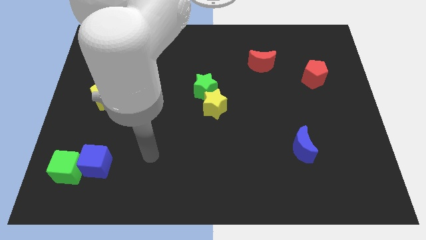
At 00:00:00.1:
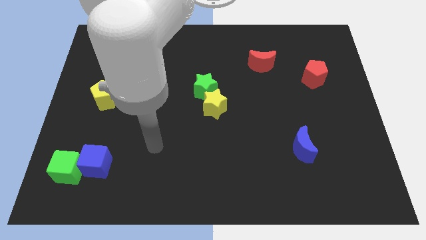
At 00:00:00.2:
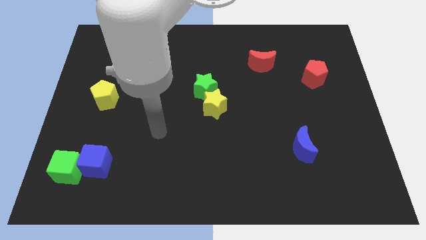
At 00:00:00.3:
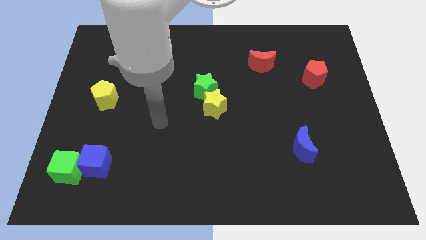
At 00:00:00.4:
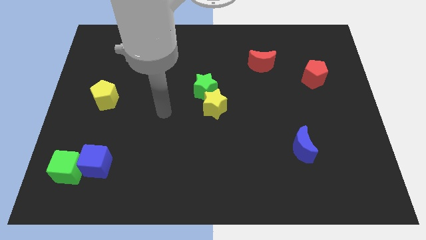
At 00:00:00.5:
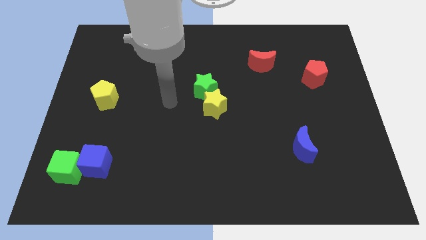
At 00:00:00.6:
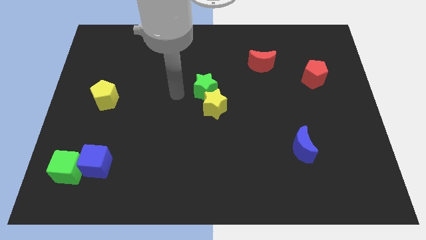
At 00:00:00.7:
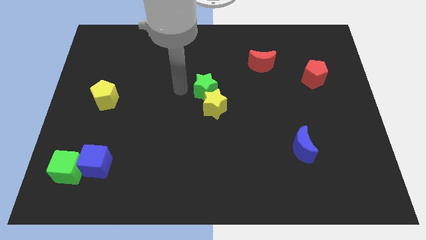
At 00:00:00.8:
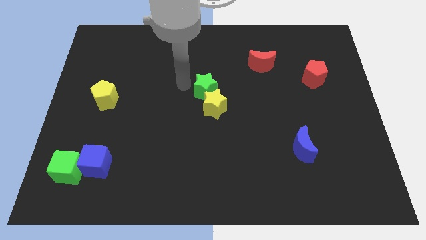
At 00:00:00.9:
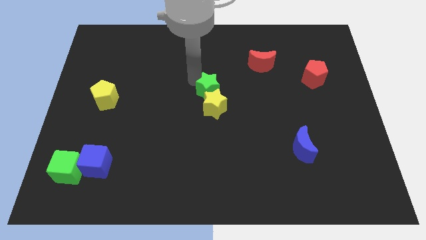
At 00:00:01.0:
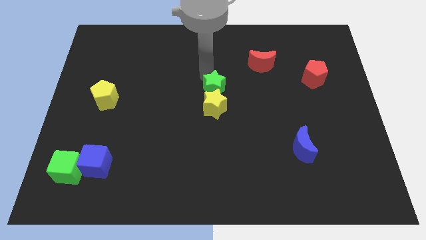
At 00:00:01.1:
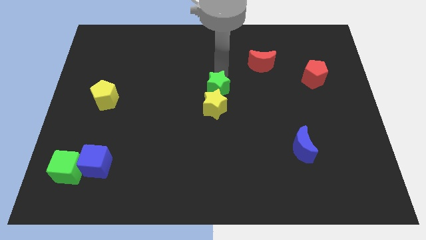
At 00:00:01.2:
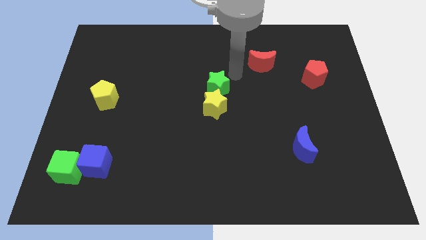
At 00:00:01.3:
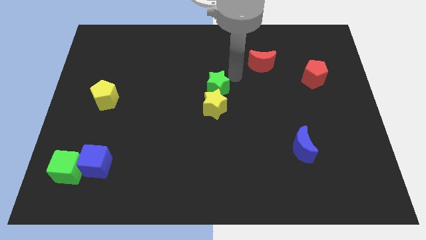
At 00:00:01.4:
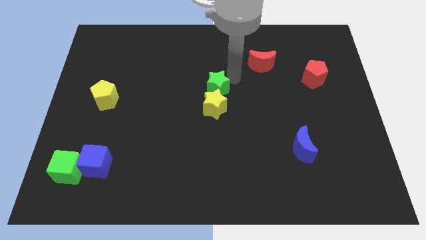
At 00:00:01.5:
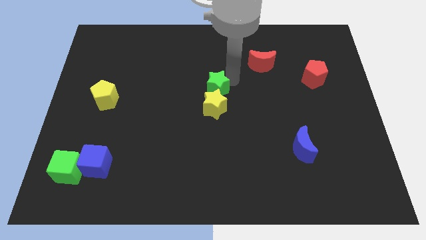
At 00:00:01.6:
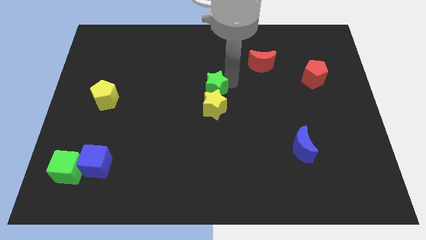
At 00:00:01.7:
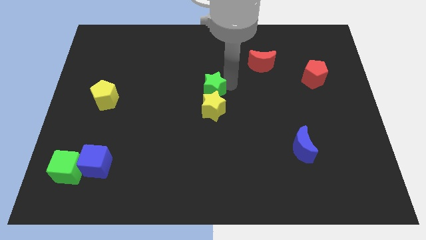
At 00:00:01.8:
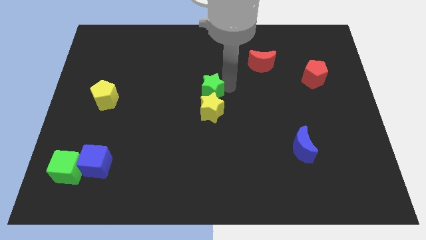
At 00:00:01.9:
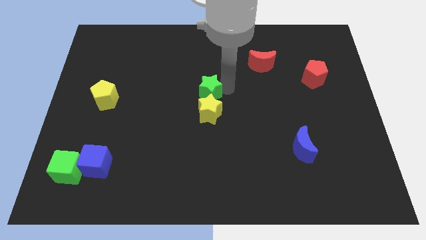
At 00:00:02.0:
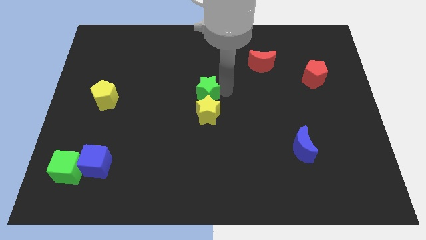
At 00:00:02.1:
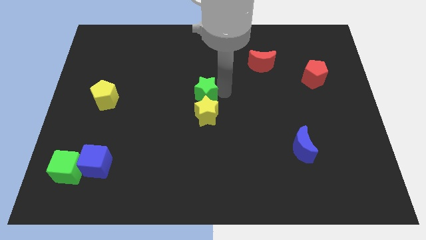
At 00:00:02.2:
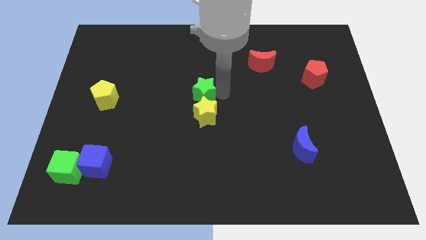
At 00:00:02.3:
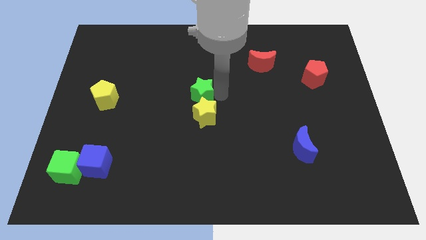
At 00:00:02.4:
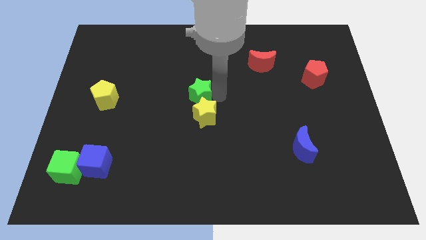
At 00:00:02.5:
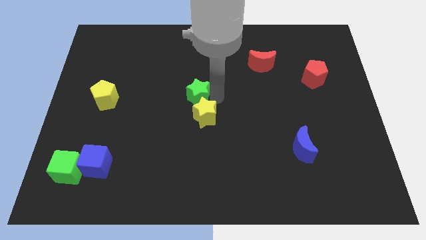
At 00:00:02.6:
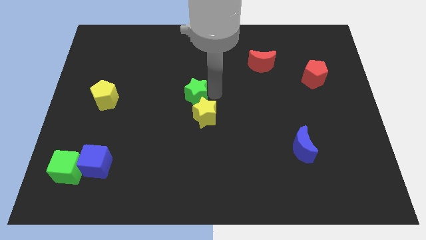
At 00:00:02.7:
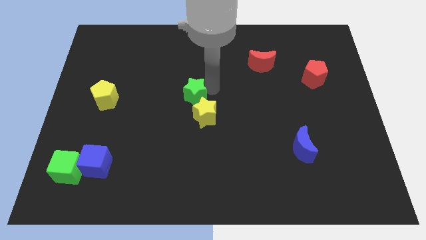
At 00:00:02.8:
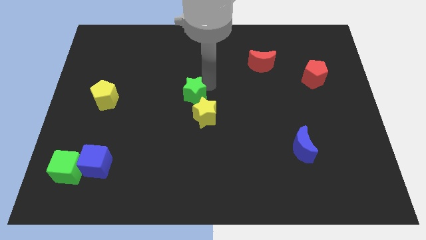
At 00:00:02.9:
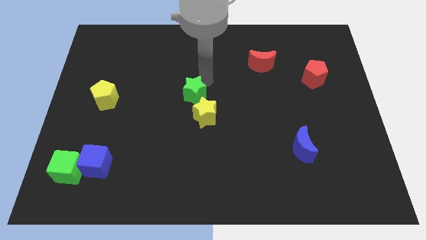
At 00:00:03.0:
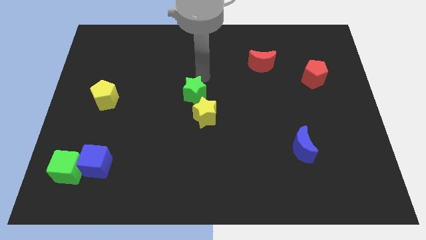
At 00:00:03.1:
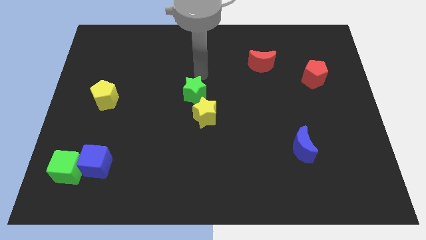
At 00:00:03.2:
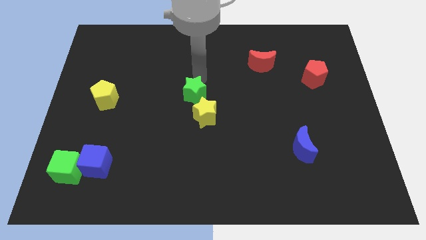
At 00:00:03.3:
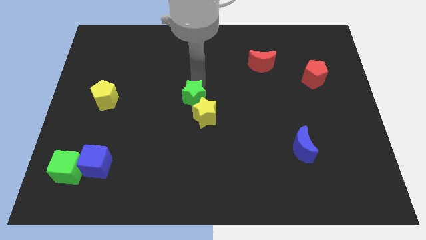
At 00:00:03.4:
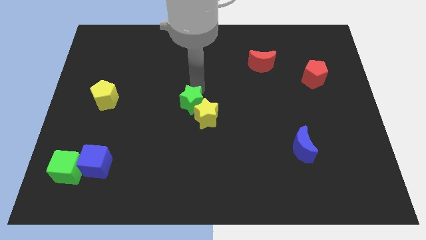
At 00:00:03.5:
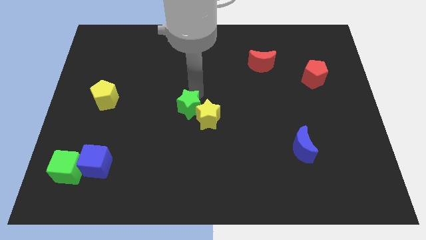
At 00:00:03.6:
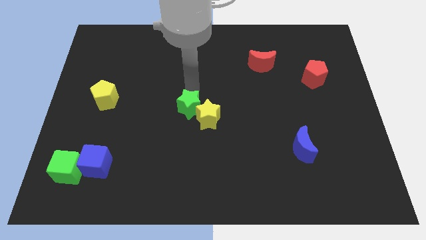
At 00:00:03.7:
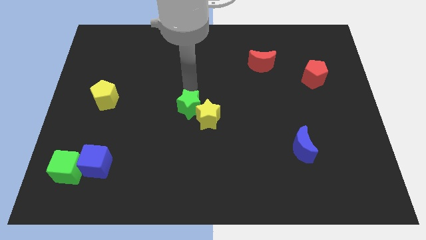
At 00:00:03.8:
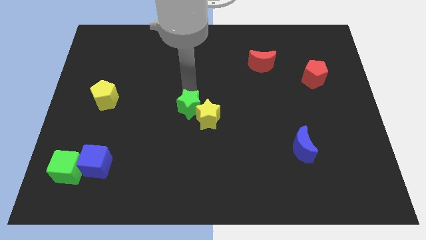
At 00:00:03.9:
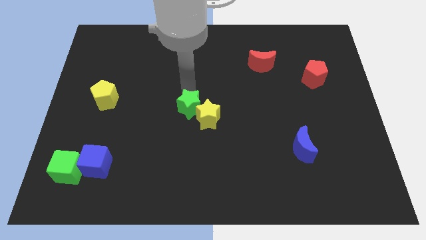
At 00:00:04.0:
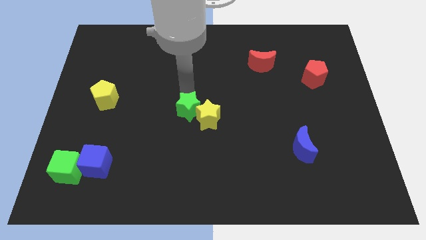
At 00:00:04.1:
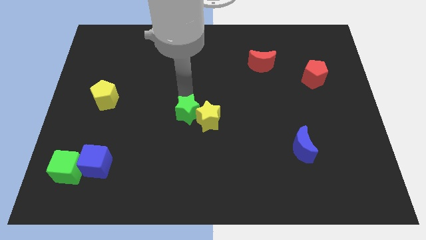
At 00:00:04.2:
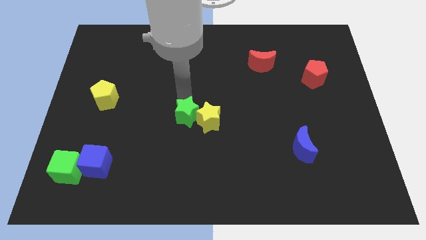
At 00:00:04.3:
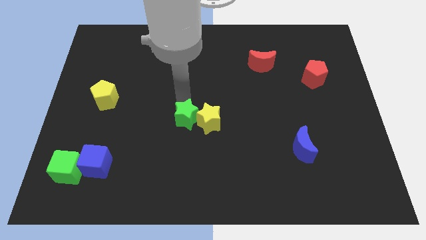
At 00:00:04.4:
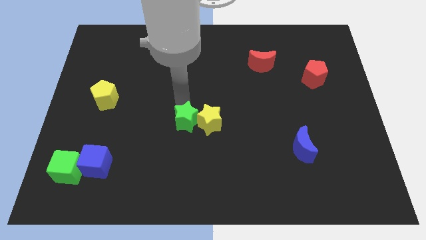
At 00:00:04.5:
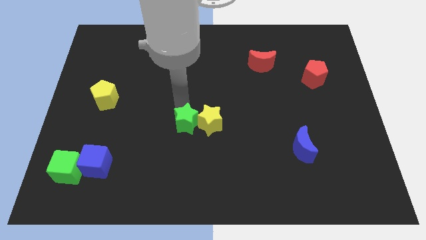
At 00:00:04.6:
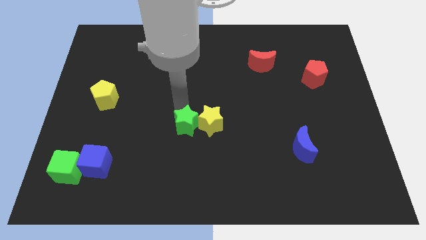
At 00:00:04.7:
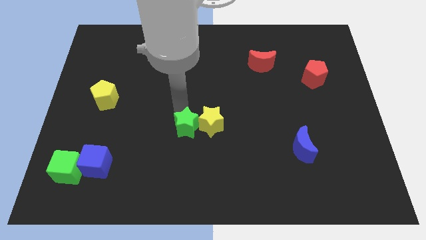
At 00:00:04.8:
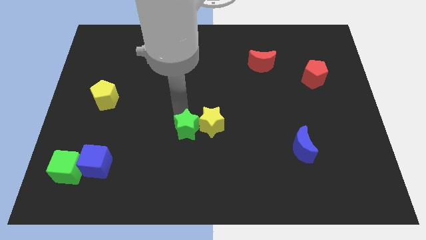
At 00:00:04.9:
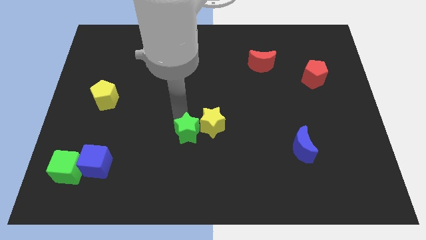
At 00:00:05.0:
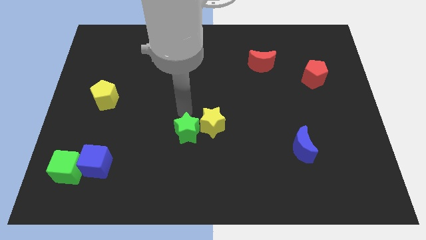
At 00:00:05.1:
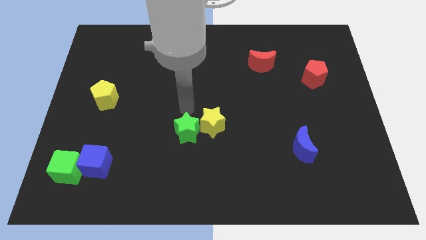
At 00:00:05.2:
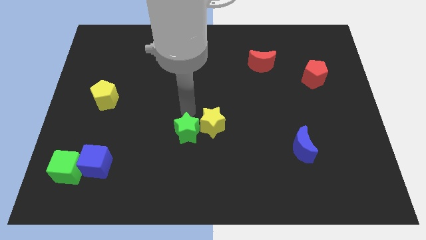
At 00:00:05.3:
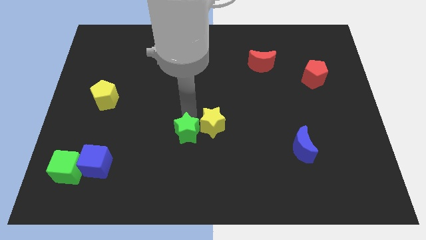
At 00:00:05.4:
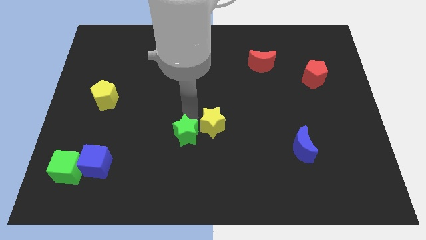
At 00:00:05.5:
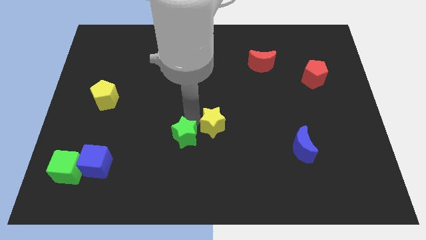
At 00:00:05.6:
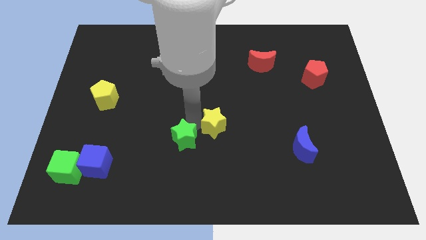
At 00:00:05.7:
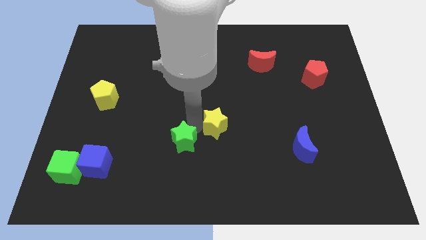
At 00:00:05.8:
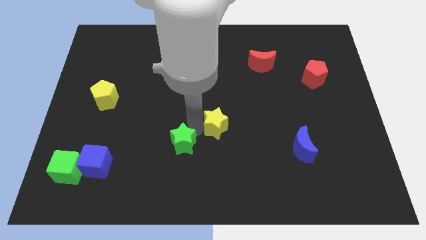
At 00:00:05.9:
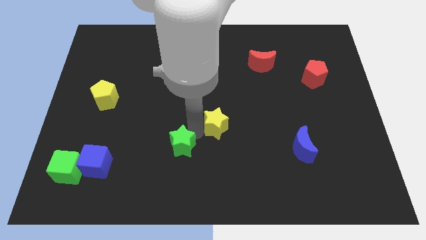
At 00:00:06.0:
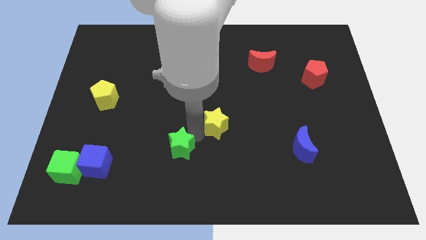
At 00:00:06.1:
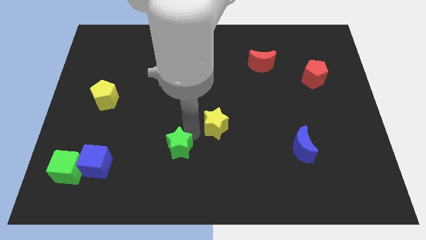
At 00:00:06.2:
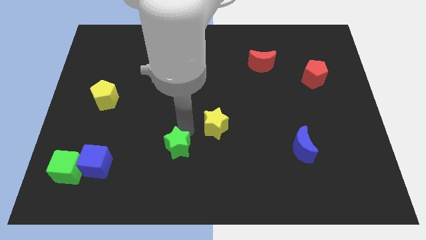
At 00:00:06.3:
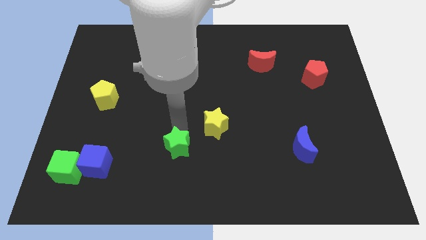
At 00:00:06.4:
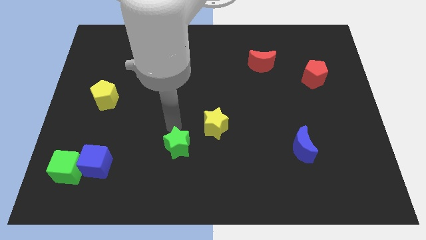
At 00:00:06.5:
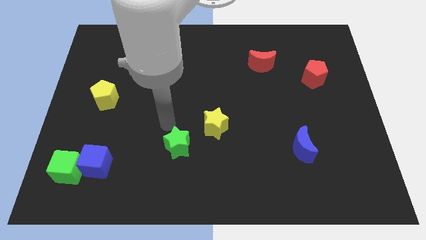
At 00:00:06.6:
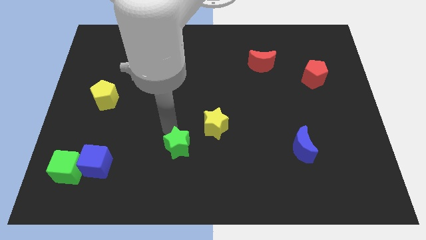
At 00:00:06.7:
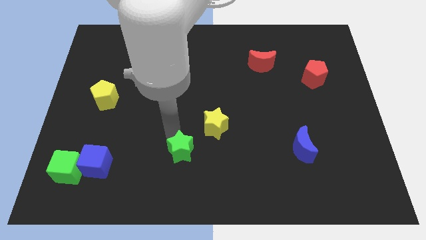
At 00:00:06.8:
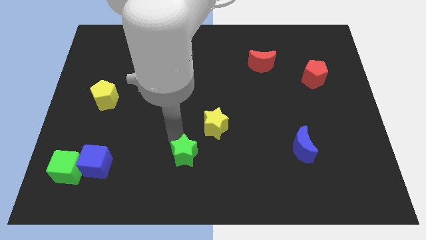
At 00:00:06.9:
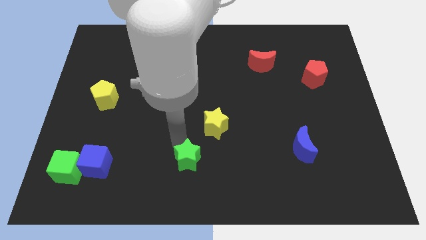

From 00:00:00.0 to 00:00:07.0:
slide the green star to the bottom side
